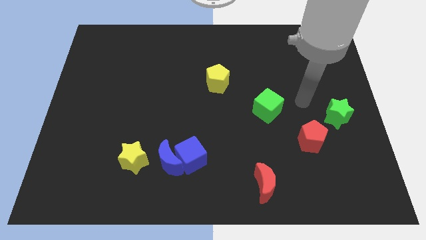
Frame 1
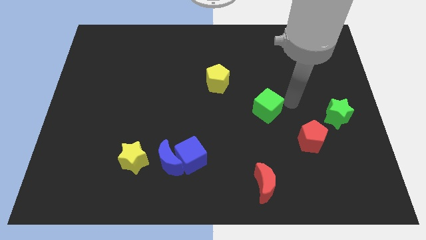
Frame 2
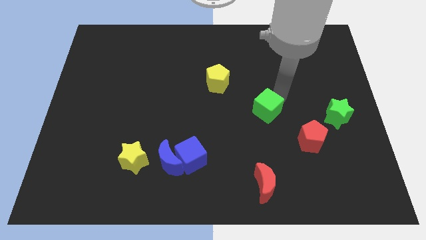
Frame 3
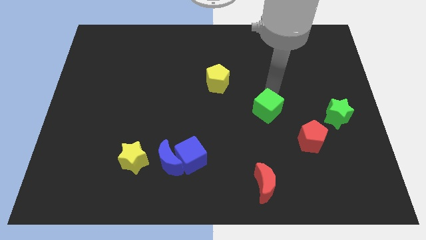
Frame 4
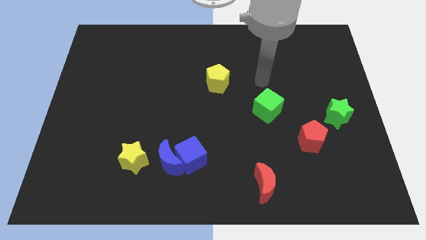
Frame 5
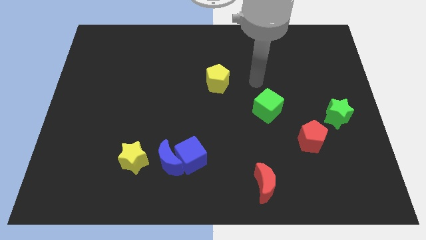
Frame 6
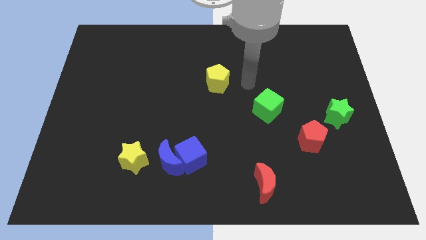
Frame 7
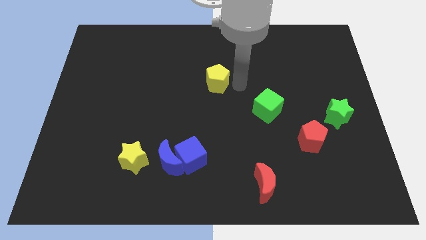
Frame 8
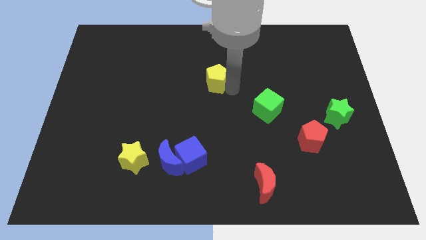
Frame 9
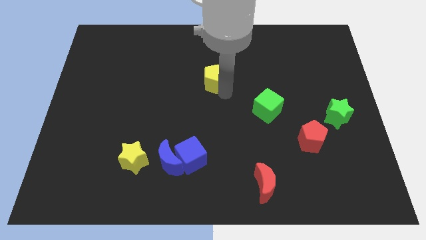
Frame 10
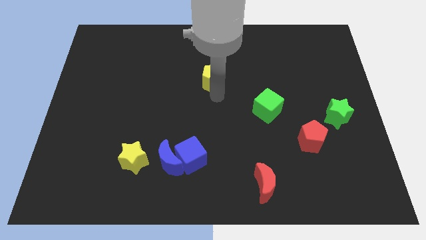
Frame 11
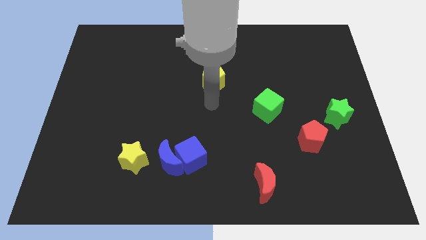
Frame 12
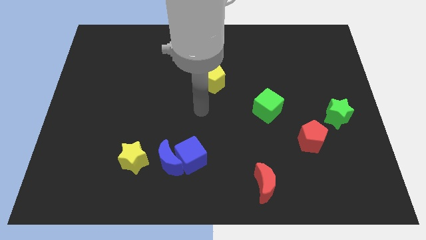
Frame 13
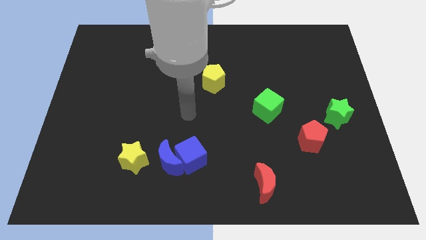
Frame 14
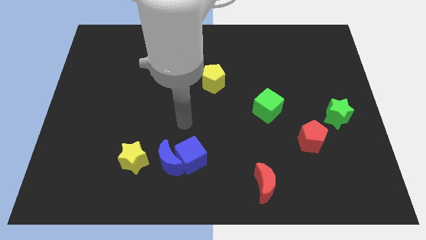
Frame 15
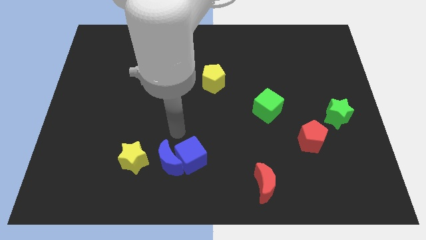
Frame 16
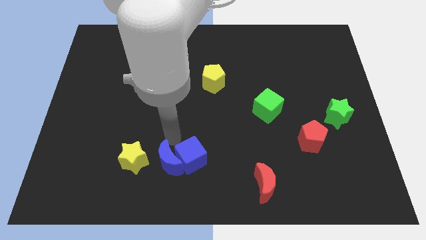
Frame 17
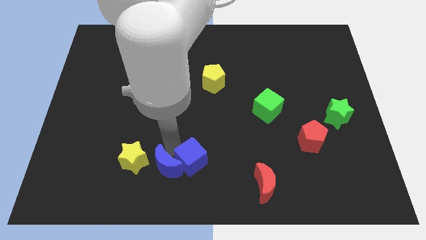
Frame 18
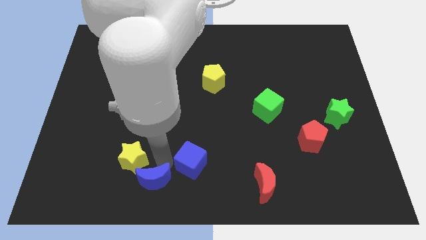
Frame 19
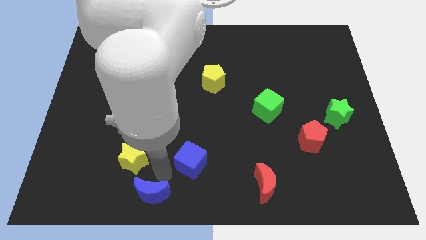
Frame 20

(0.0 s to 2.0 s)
move the blue cube away from the blue moon

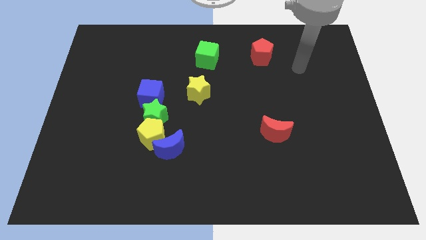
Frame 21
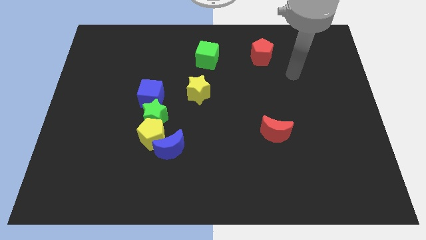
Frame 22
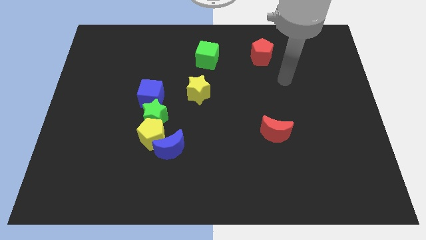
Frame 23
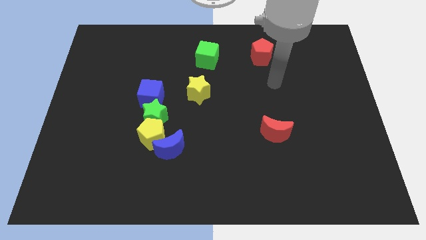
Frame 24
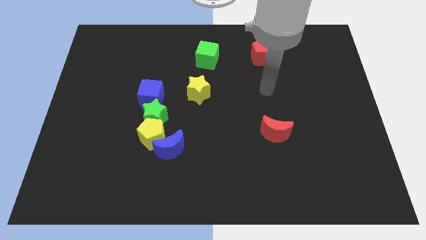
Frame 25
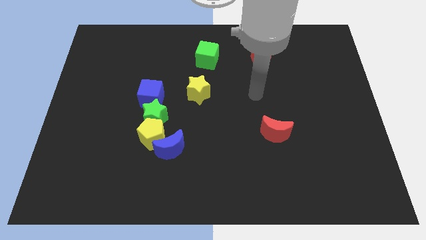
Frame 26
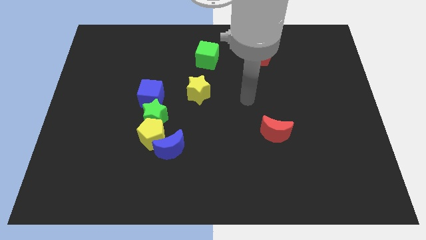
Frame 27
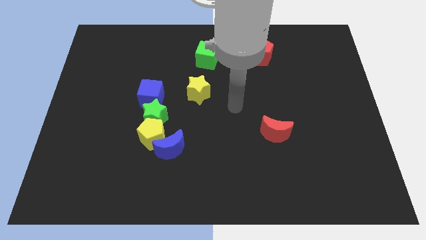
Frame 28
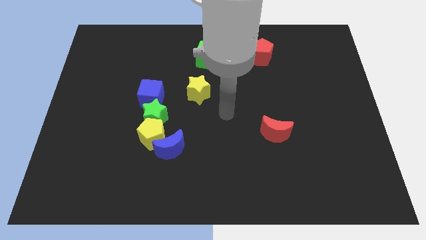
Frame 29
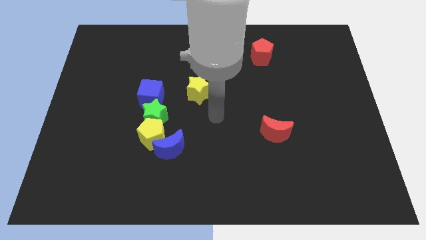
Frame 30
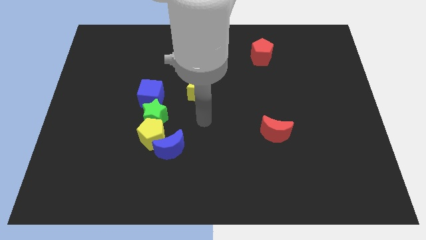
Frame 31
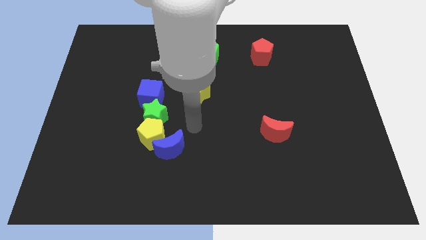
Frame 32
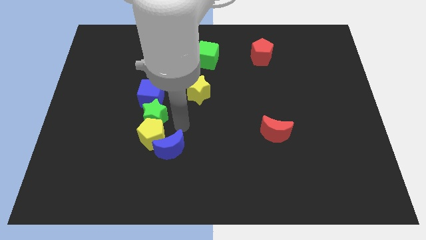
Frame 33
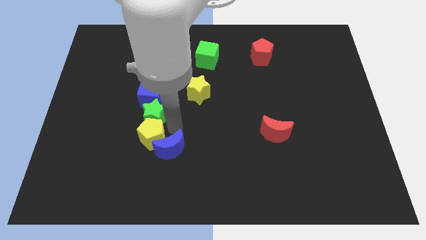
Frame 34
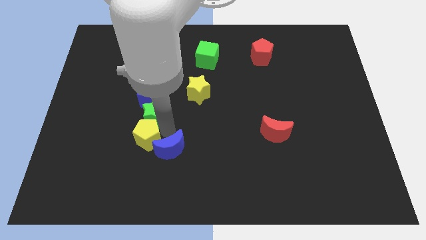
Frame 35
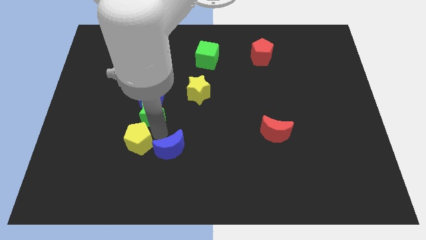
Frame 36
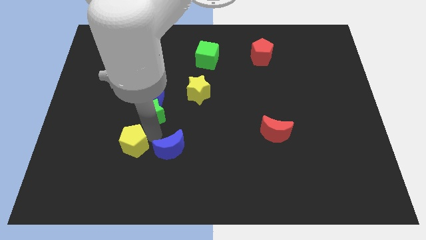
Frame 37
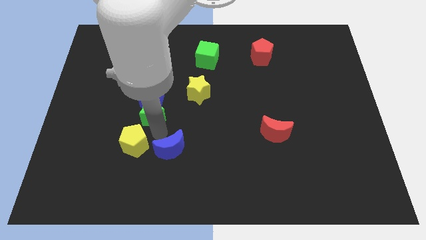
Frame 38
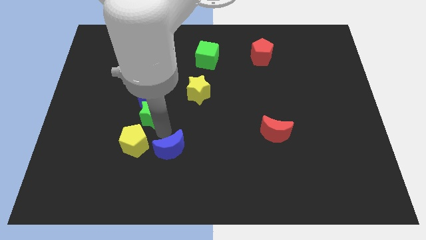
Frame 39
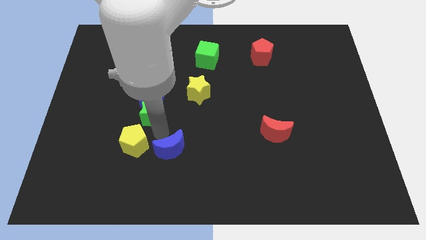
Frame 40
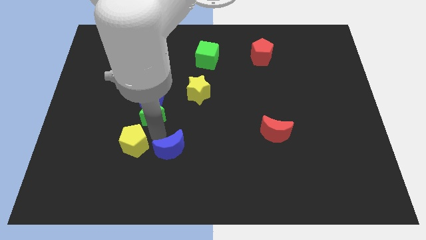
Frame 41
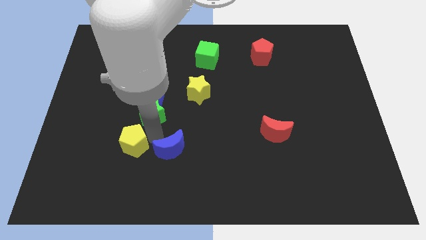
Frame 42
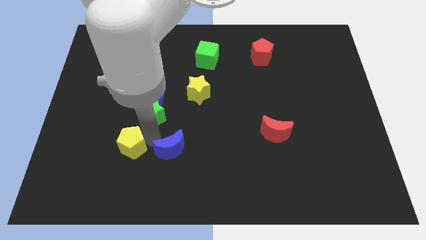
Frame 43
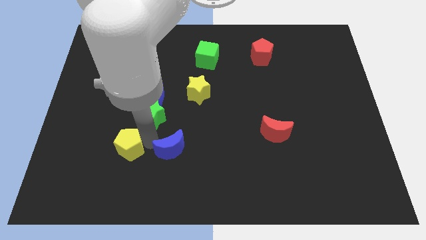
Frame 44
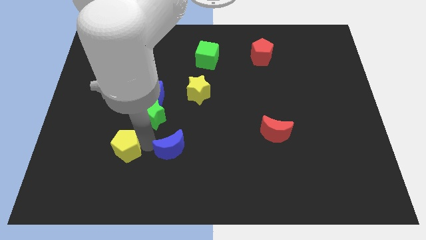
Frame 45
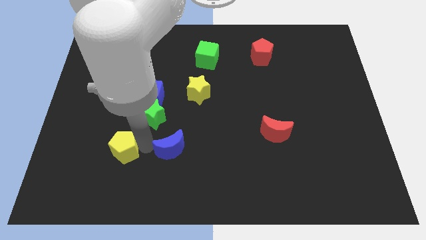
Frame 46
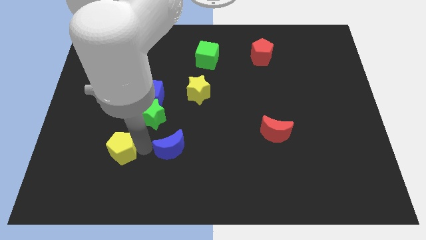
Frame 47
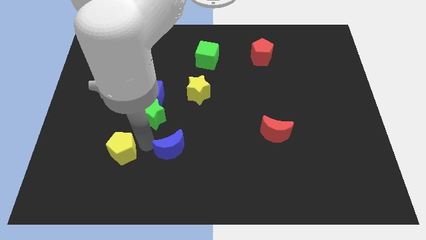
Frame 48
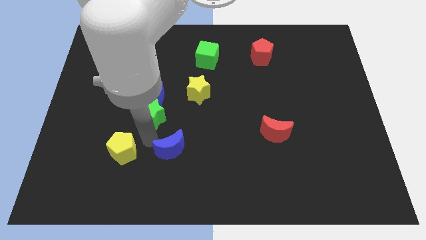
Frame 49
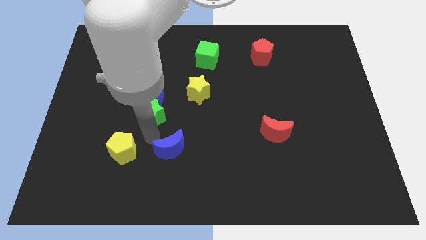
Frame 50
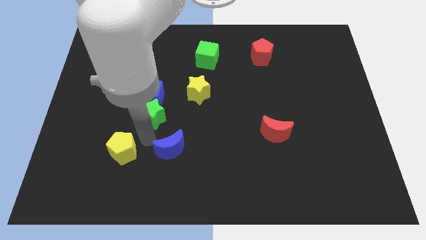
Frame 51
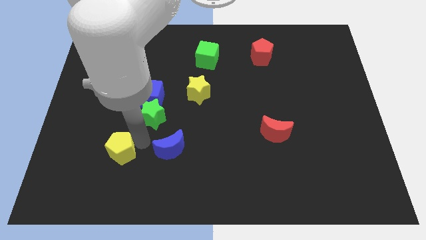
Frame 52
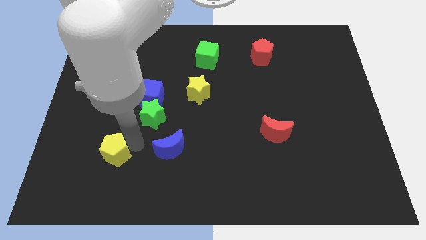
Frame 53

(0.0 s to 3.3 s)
move the yellow pentagon away from the blue moon and green star

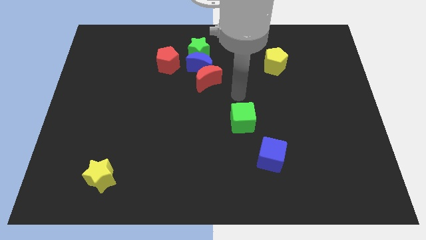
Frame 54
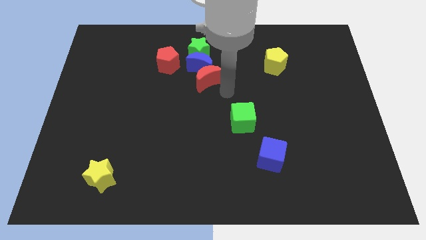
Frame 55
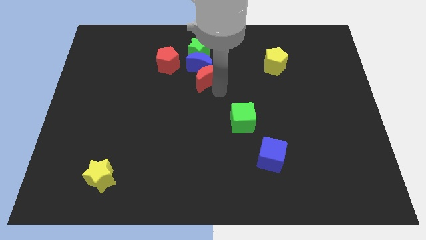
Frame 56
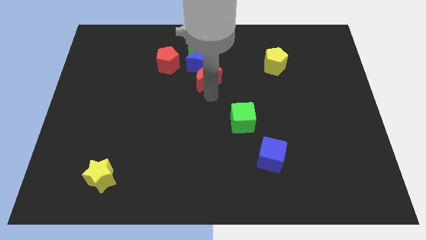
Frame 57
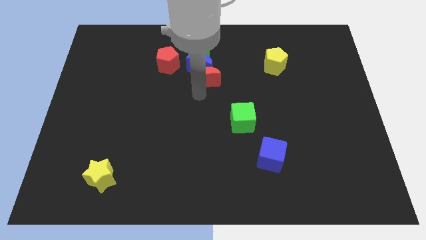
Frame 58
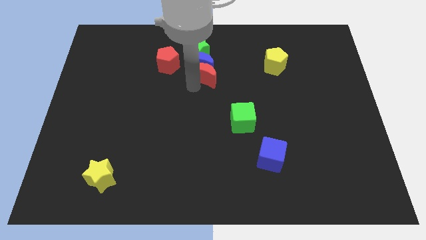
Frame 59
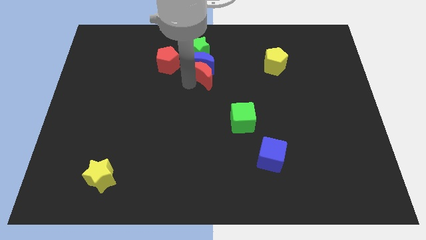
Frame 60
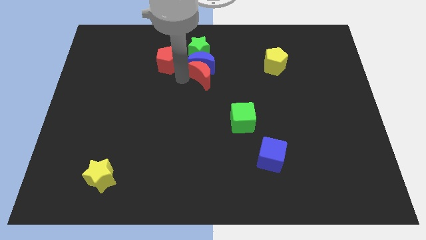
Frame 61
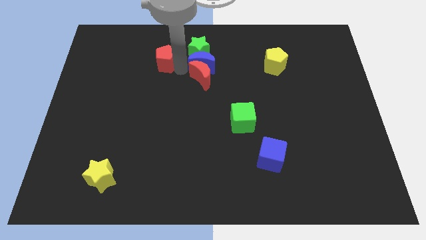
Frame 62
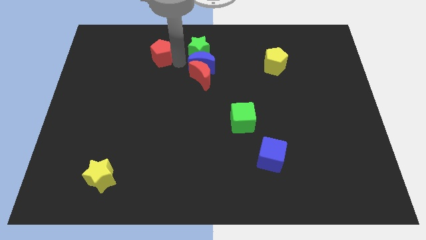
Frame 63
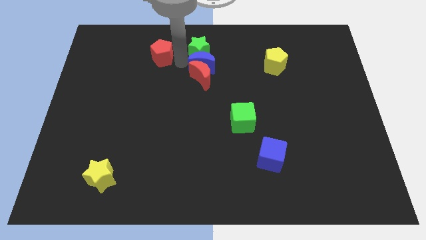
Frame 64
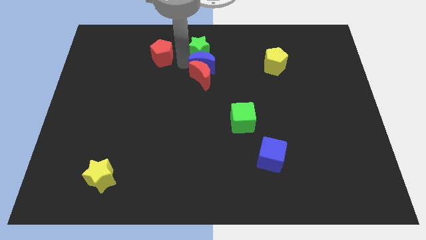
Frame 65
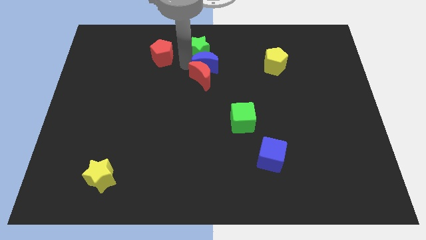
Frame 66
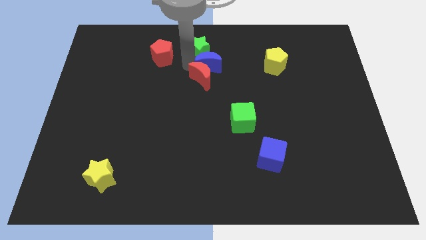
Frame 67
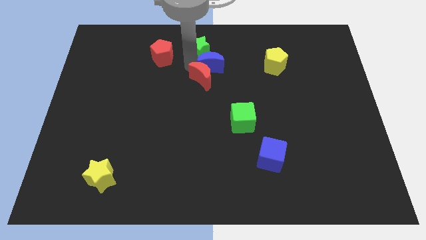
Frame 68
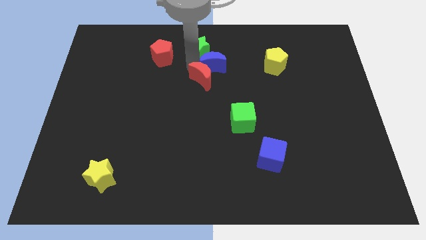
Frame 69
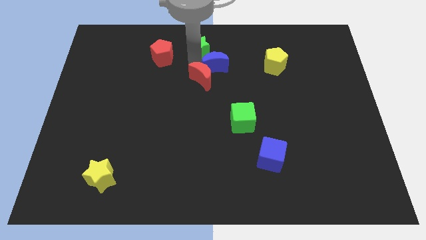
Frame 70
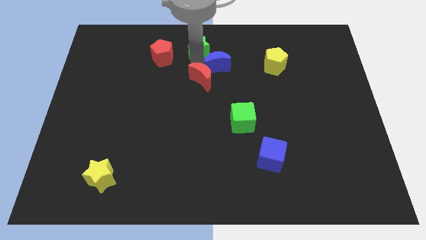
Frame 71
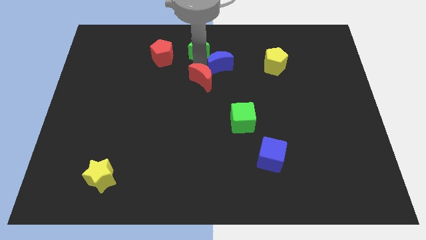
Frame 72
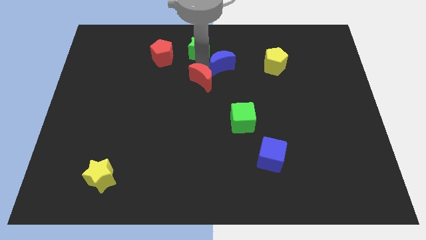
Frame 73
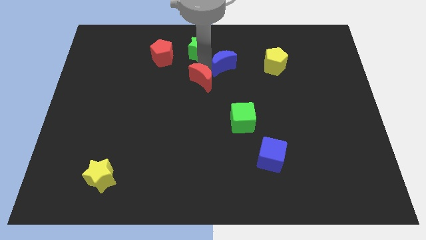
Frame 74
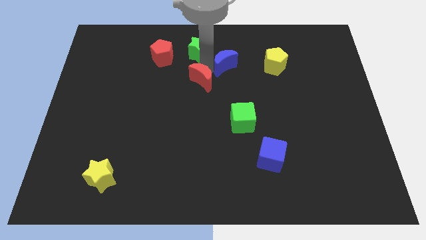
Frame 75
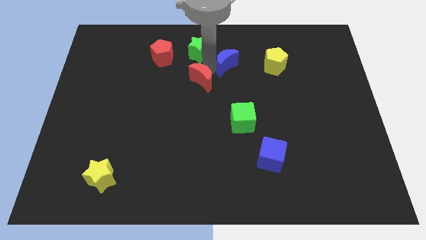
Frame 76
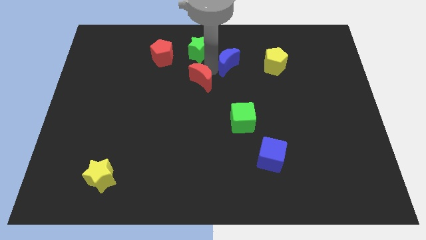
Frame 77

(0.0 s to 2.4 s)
pull the blue moon apart from the clump

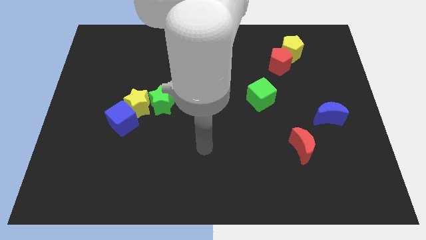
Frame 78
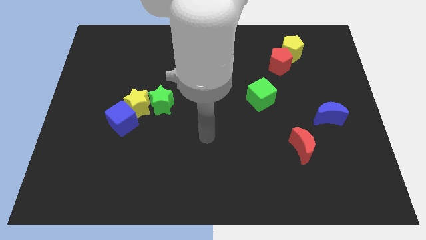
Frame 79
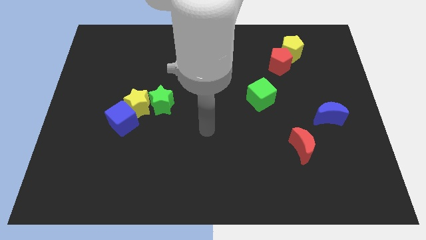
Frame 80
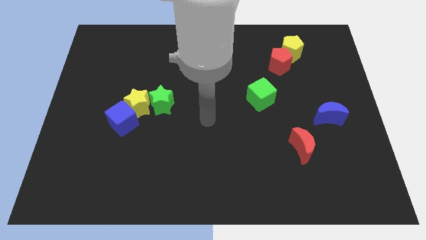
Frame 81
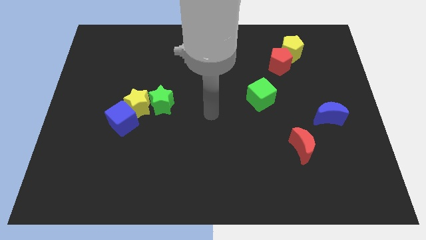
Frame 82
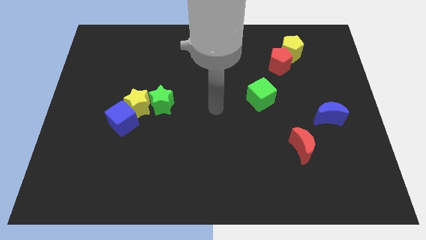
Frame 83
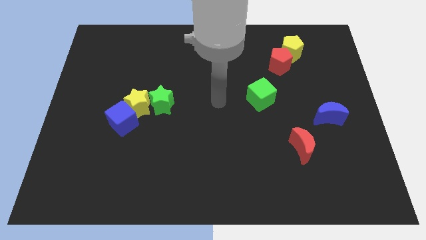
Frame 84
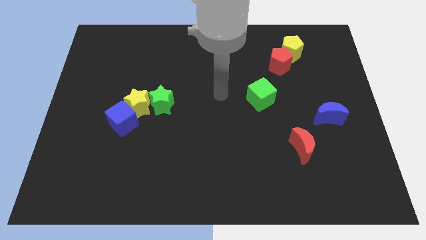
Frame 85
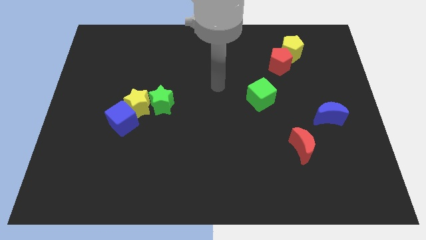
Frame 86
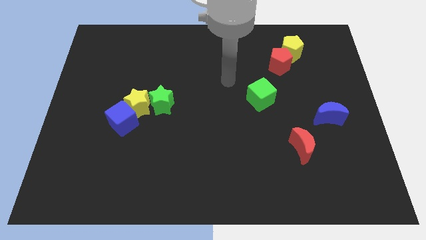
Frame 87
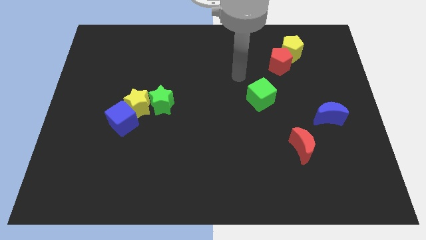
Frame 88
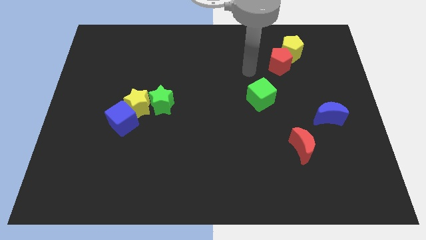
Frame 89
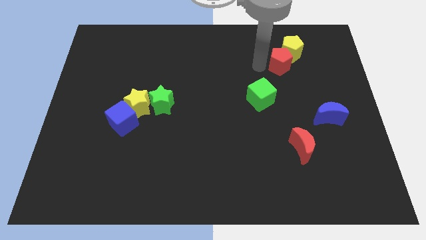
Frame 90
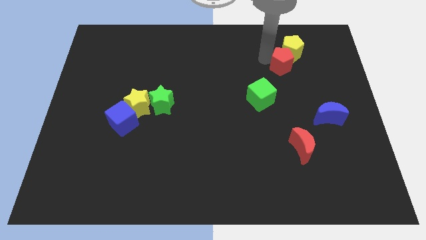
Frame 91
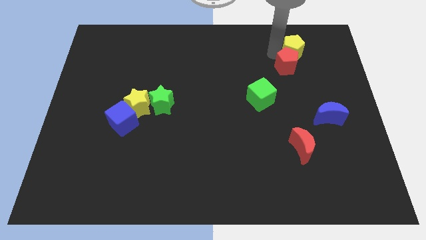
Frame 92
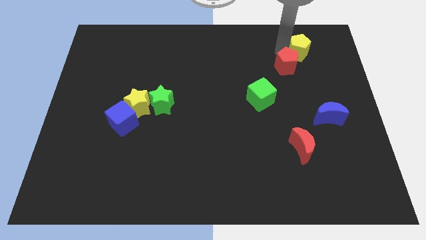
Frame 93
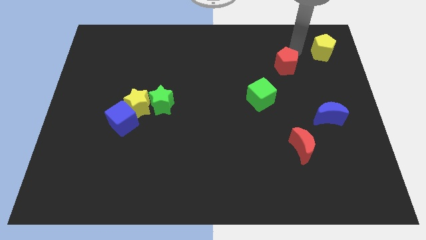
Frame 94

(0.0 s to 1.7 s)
separate the red pentagon from the yellow pentagon
